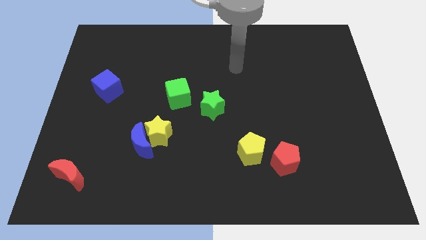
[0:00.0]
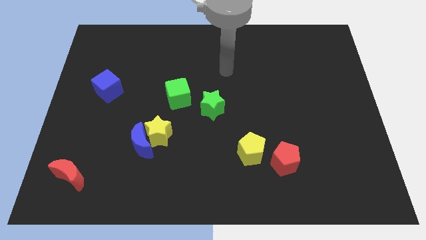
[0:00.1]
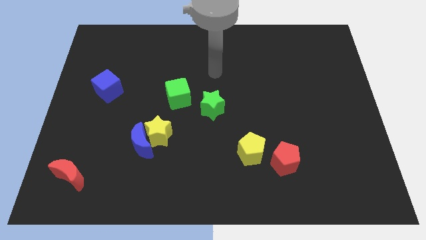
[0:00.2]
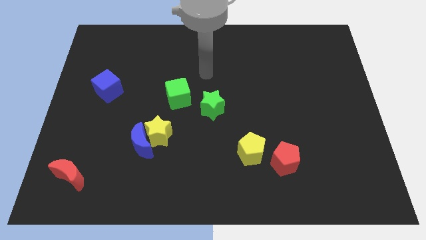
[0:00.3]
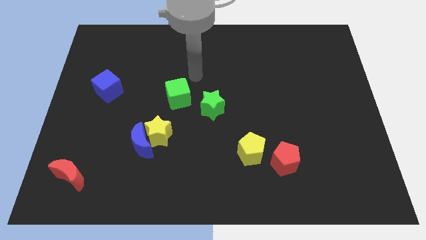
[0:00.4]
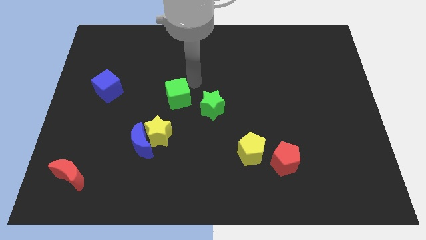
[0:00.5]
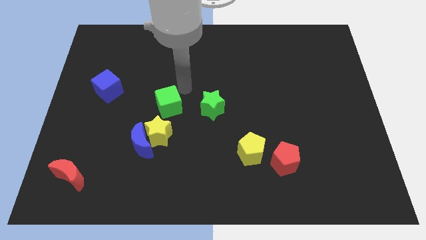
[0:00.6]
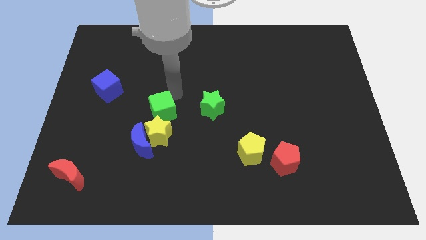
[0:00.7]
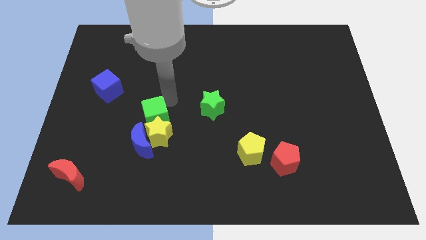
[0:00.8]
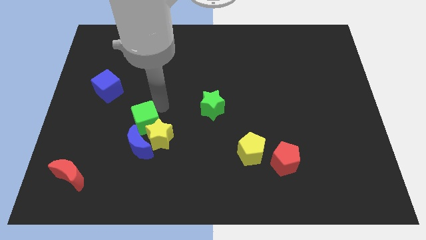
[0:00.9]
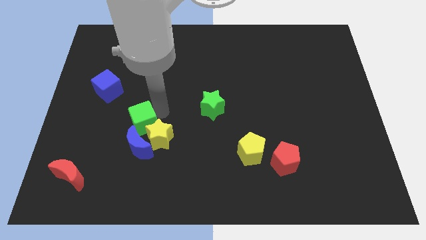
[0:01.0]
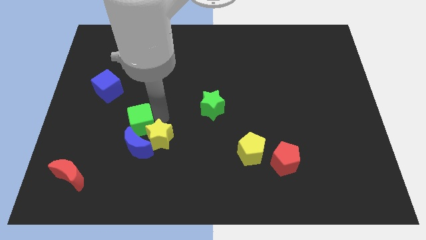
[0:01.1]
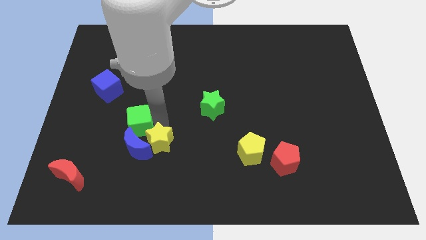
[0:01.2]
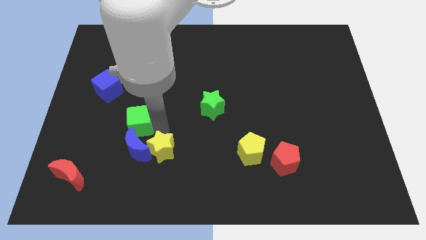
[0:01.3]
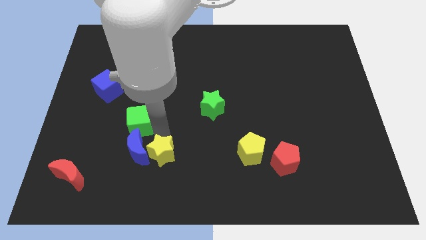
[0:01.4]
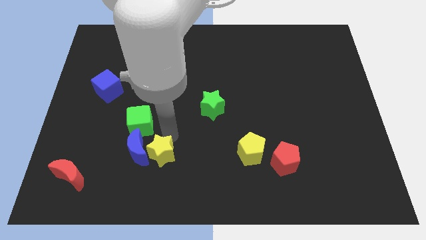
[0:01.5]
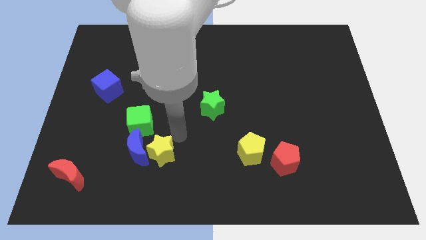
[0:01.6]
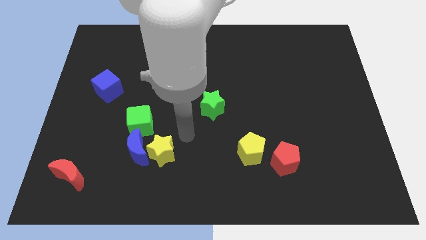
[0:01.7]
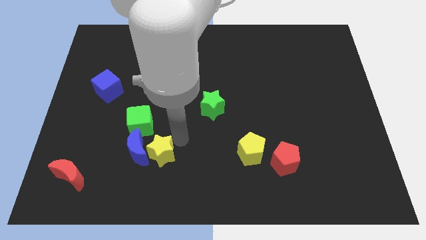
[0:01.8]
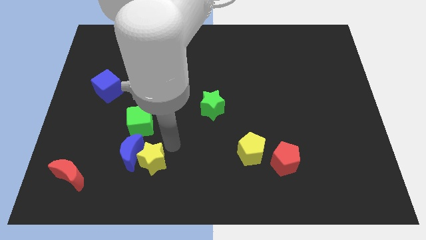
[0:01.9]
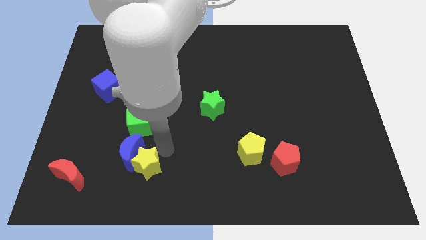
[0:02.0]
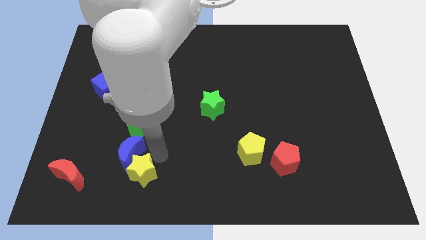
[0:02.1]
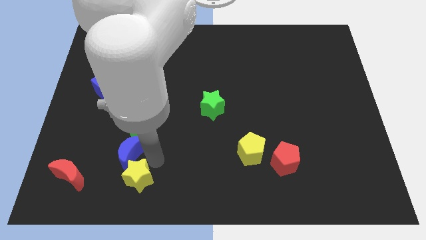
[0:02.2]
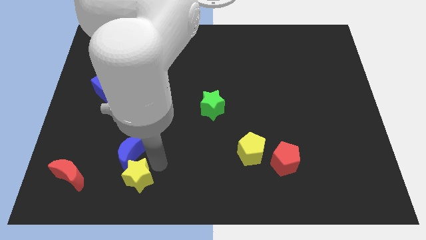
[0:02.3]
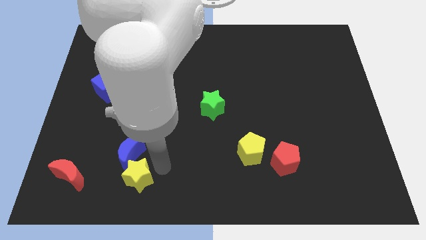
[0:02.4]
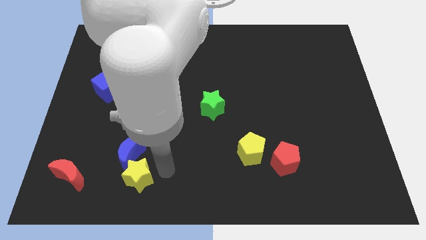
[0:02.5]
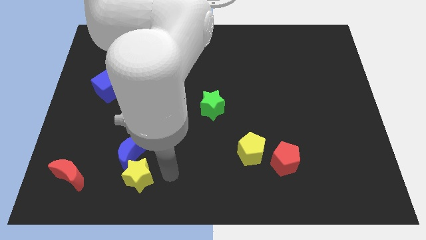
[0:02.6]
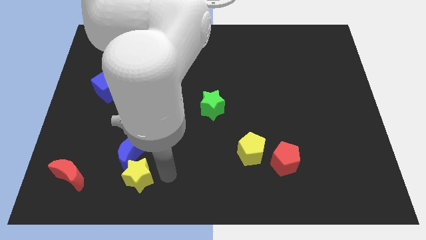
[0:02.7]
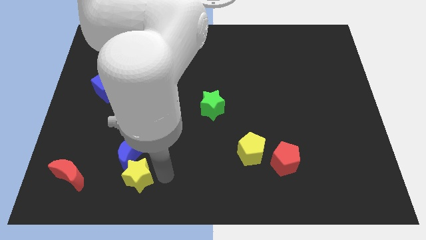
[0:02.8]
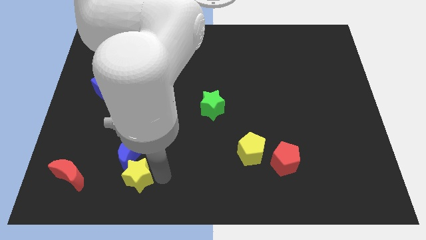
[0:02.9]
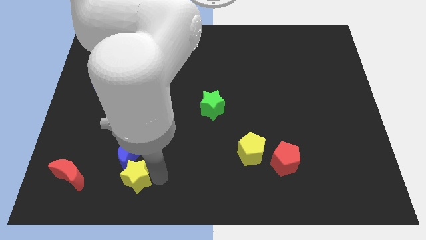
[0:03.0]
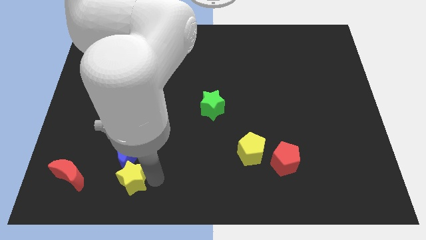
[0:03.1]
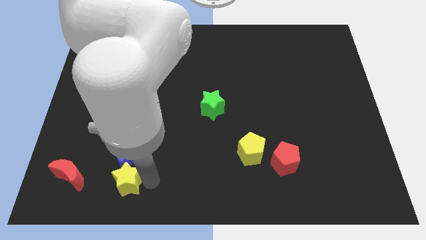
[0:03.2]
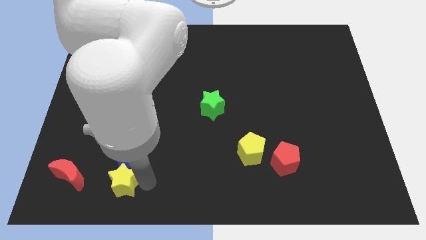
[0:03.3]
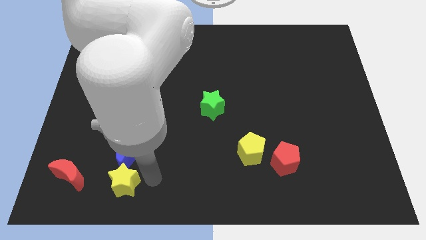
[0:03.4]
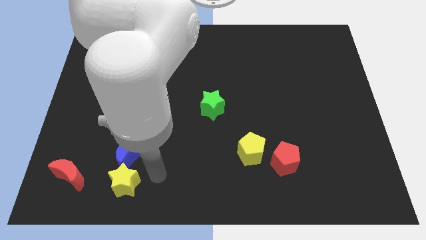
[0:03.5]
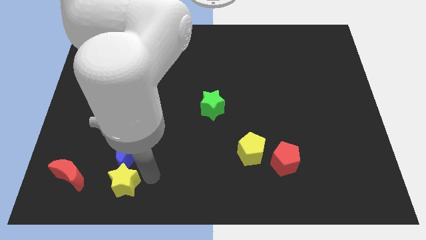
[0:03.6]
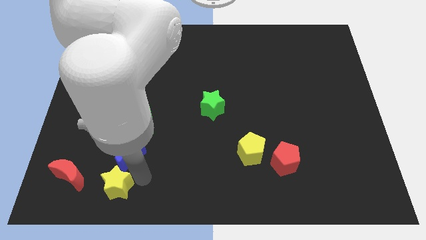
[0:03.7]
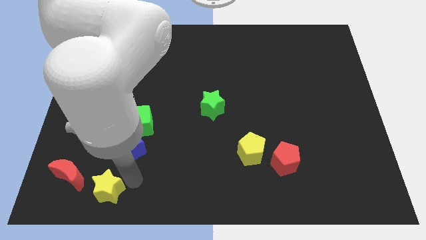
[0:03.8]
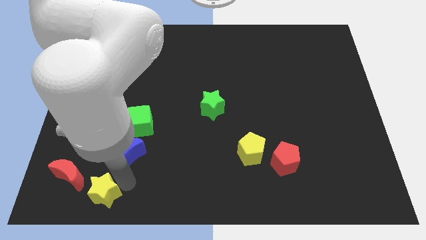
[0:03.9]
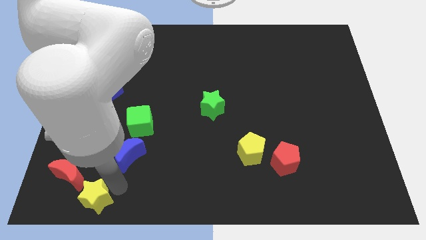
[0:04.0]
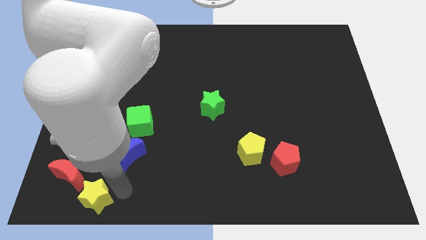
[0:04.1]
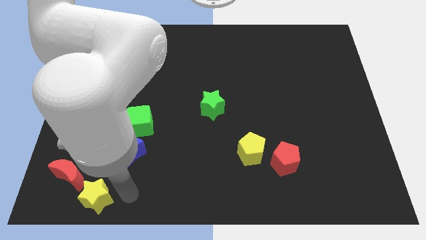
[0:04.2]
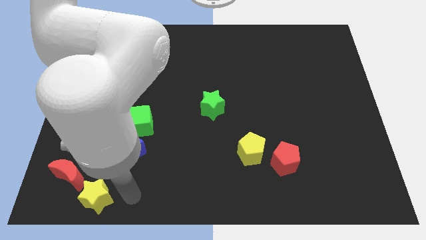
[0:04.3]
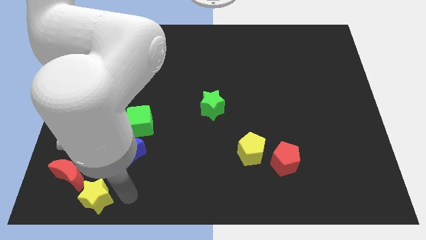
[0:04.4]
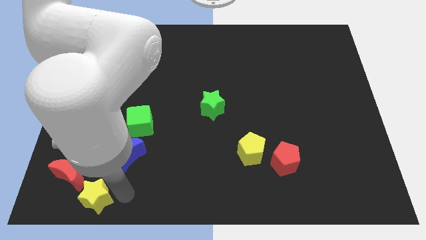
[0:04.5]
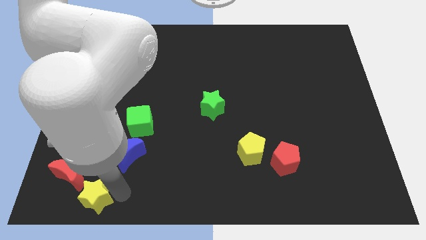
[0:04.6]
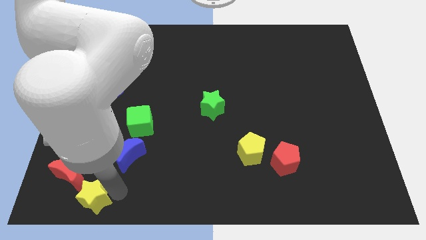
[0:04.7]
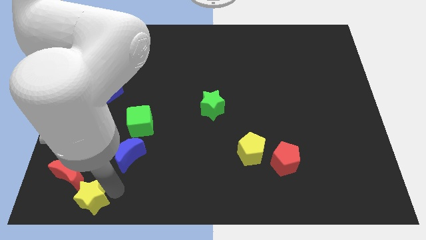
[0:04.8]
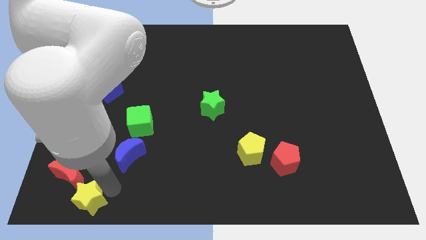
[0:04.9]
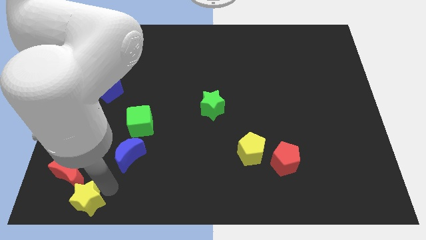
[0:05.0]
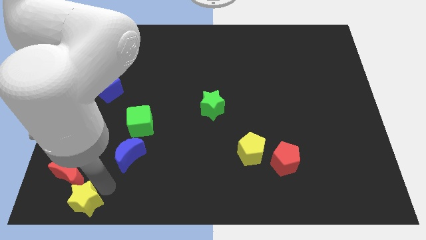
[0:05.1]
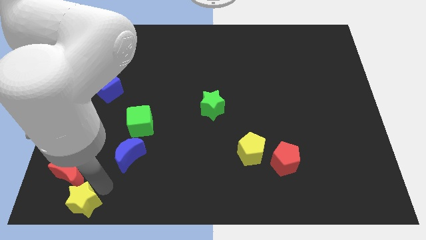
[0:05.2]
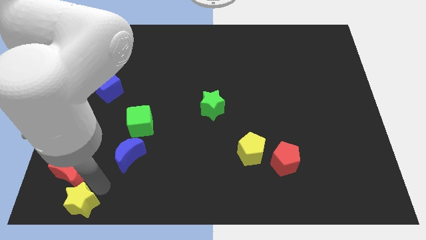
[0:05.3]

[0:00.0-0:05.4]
slide the yellow star to the bottom left

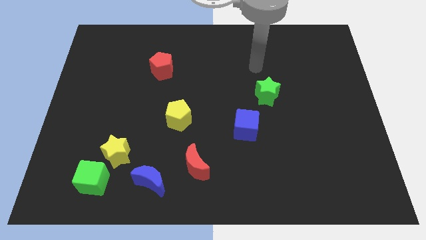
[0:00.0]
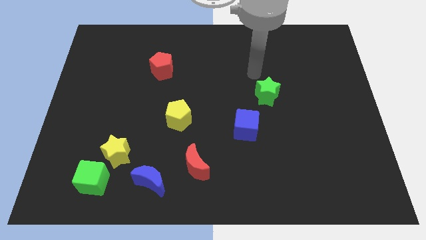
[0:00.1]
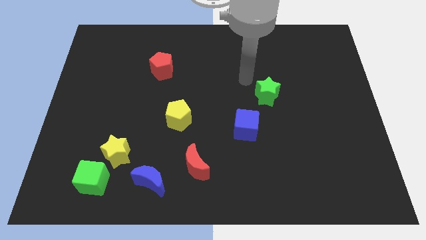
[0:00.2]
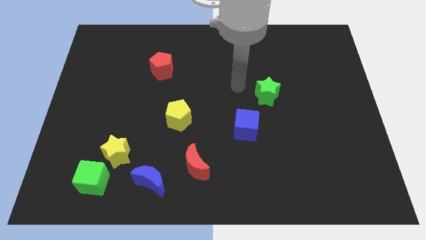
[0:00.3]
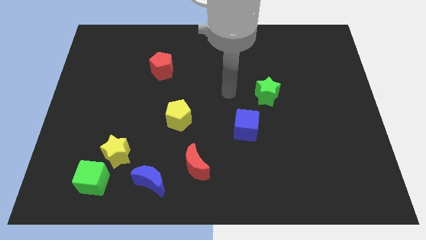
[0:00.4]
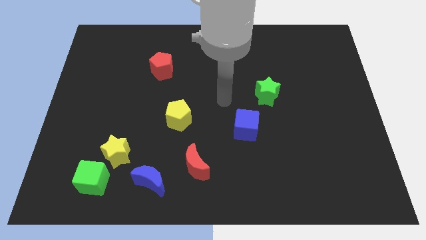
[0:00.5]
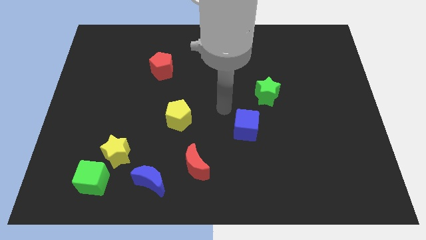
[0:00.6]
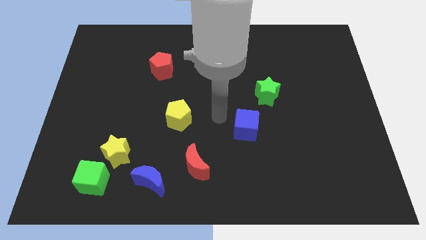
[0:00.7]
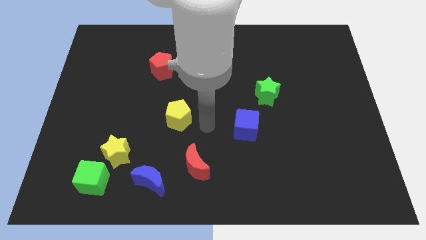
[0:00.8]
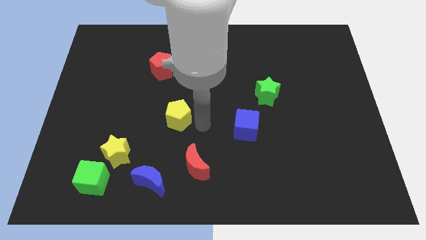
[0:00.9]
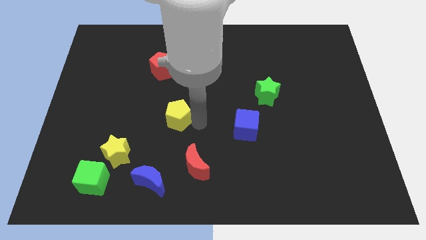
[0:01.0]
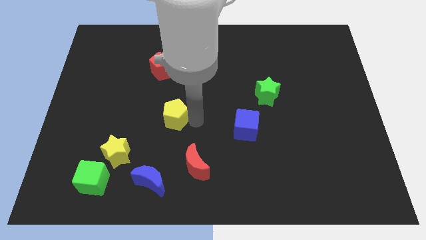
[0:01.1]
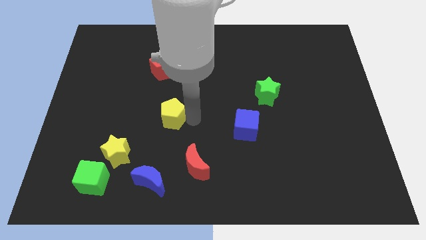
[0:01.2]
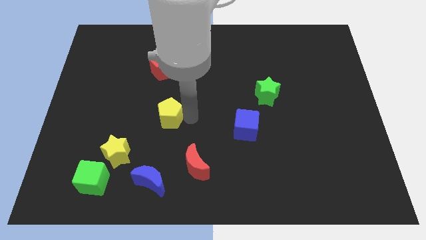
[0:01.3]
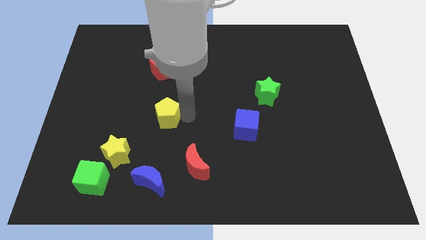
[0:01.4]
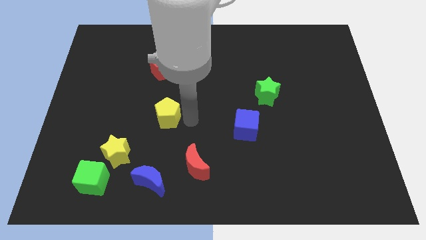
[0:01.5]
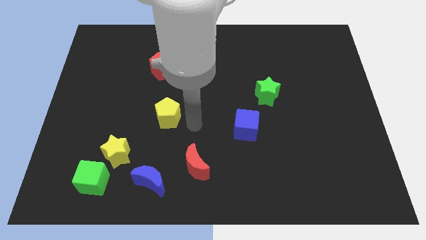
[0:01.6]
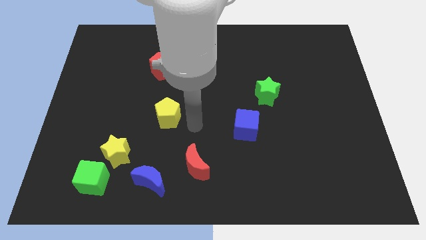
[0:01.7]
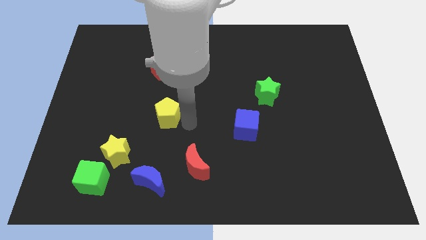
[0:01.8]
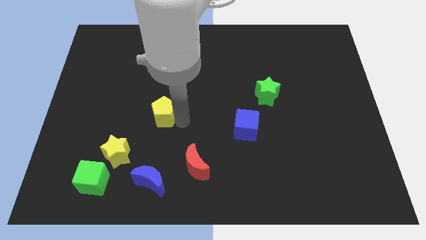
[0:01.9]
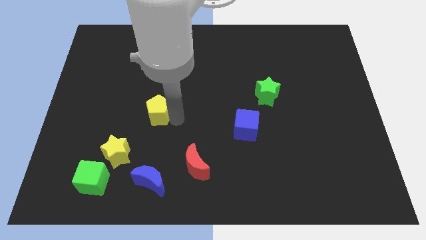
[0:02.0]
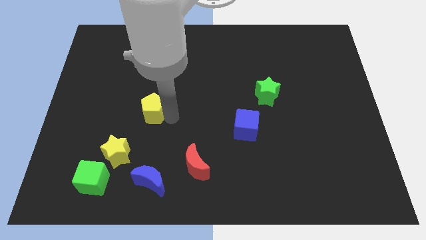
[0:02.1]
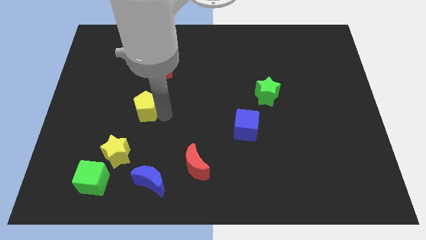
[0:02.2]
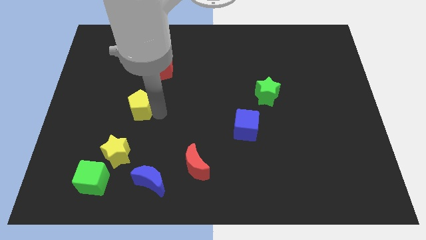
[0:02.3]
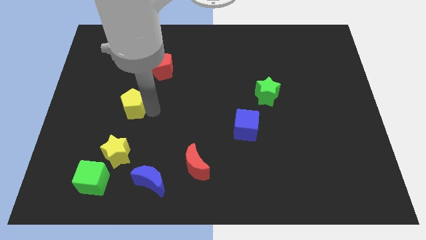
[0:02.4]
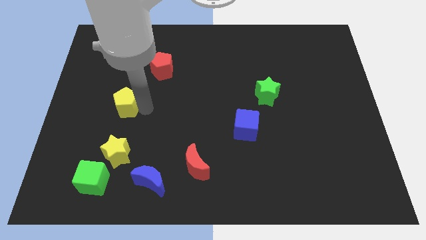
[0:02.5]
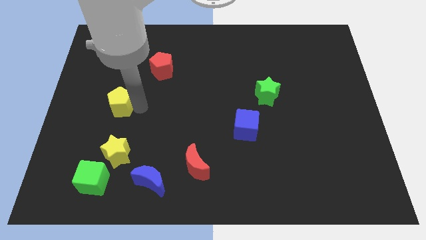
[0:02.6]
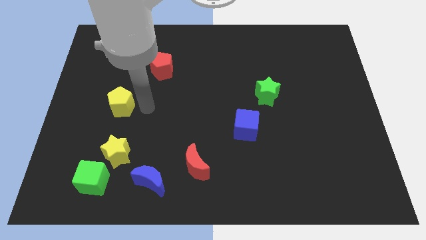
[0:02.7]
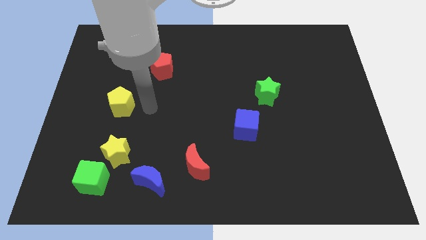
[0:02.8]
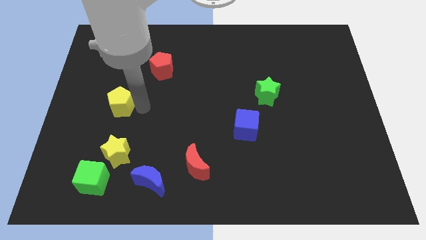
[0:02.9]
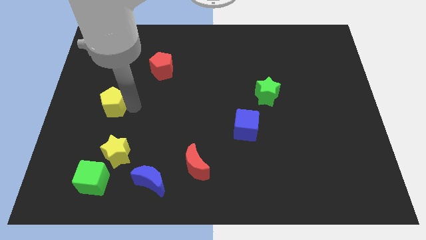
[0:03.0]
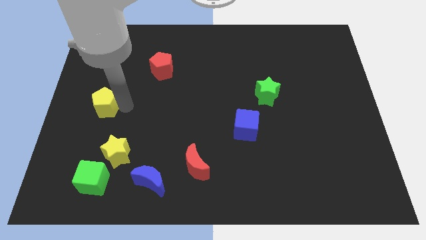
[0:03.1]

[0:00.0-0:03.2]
slide the yellow pentagon to the left side
